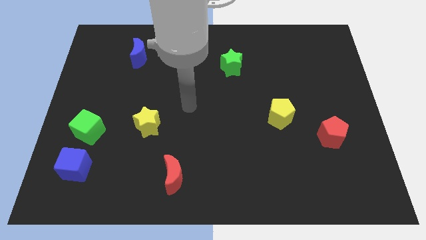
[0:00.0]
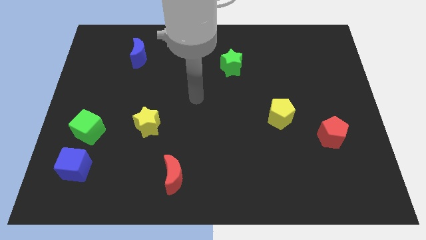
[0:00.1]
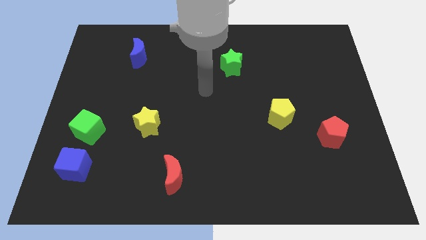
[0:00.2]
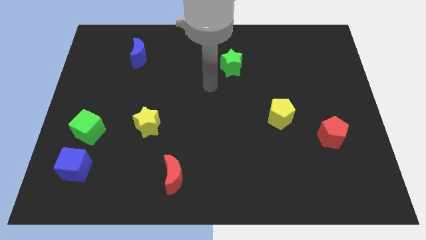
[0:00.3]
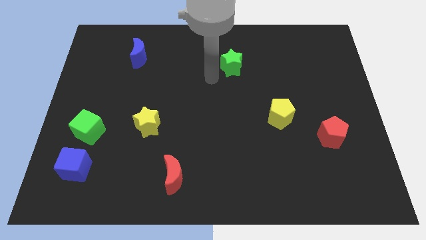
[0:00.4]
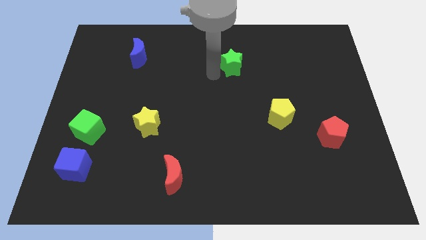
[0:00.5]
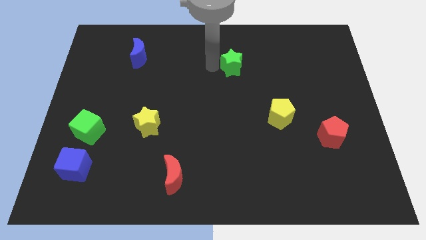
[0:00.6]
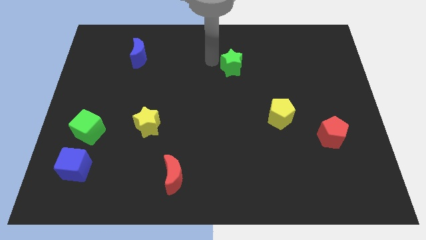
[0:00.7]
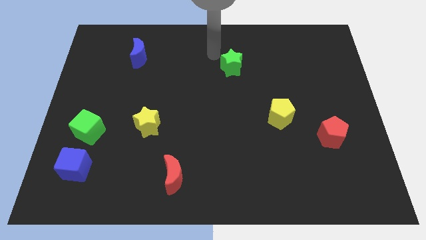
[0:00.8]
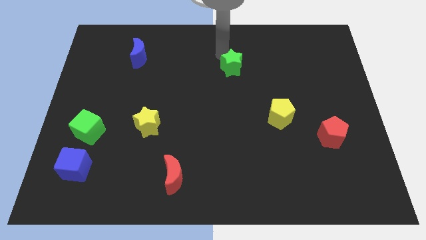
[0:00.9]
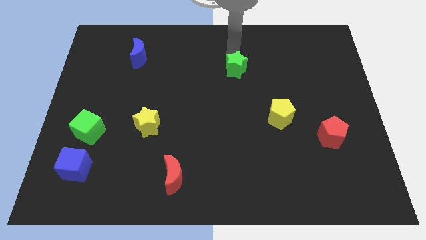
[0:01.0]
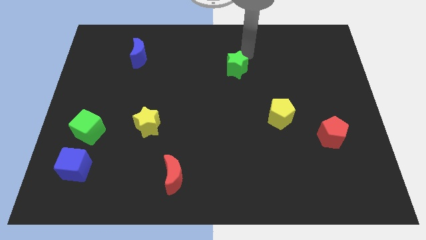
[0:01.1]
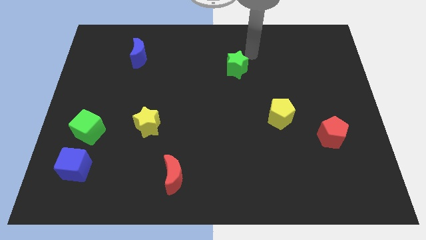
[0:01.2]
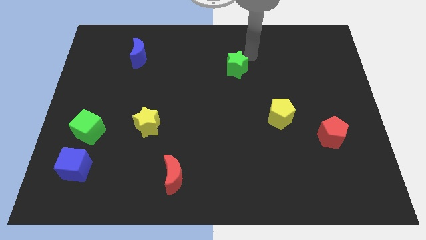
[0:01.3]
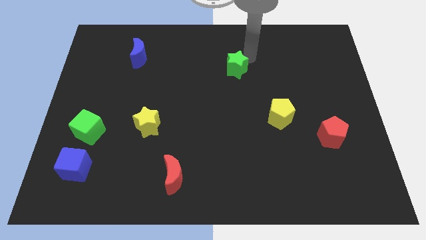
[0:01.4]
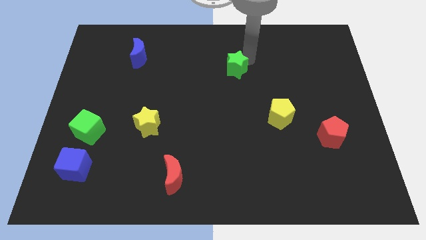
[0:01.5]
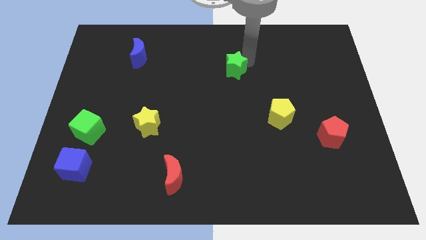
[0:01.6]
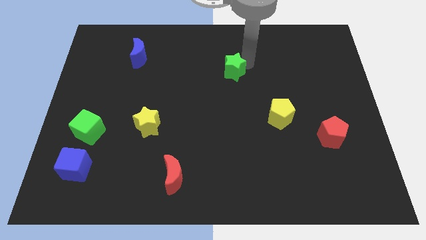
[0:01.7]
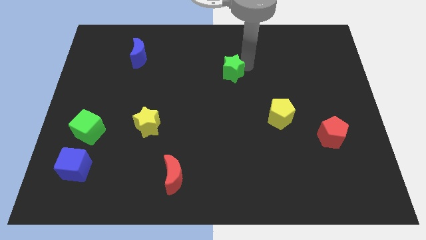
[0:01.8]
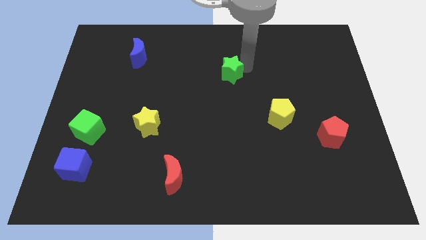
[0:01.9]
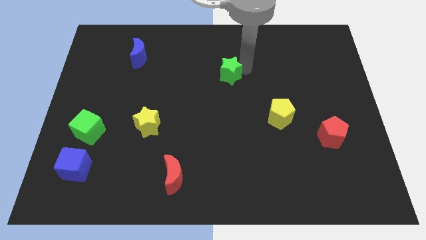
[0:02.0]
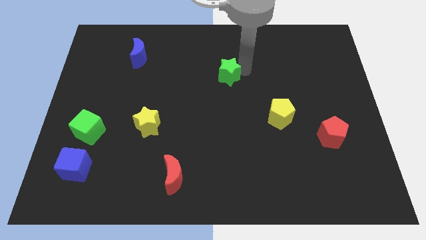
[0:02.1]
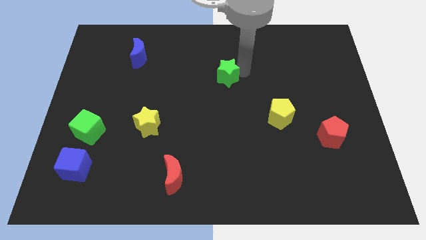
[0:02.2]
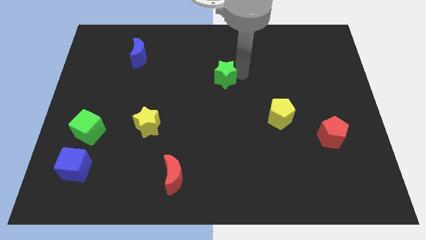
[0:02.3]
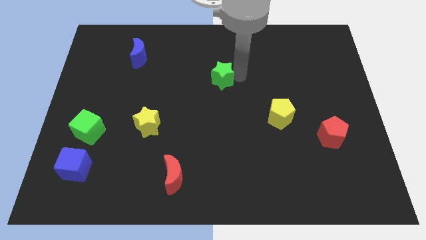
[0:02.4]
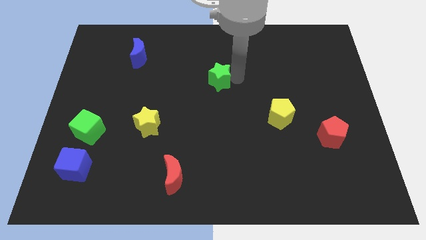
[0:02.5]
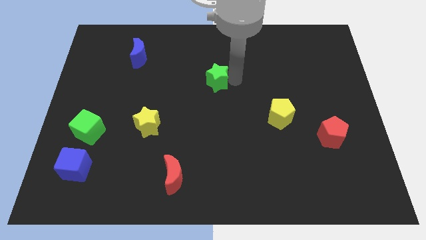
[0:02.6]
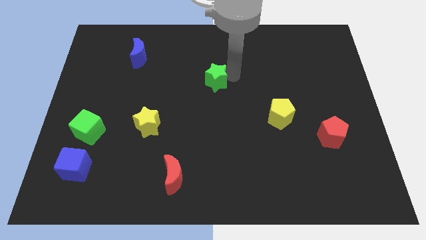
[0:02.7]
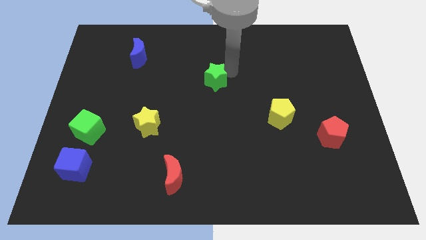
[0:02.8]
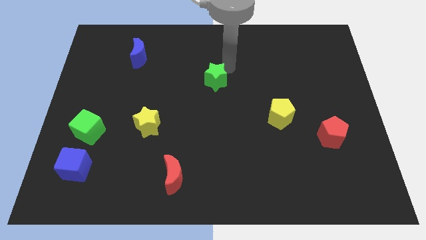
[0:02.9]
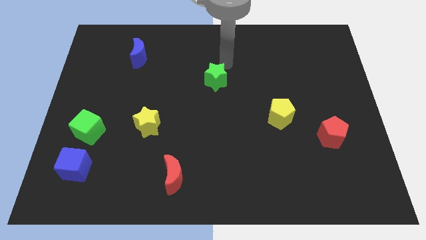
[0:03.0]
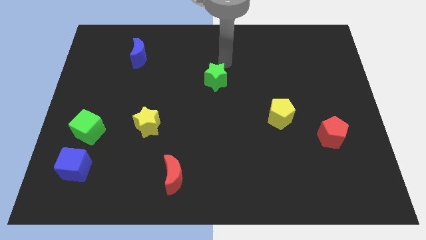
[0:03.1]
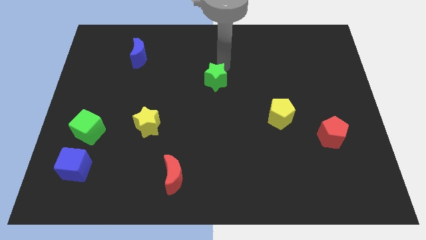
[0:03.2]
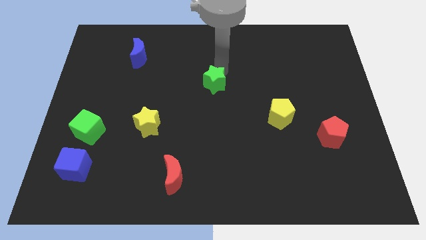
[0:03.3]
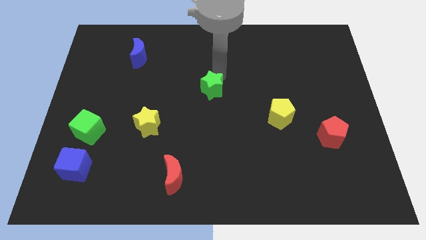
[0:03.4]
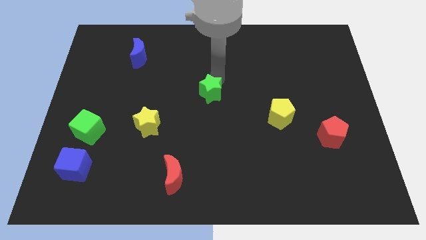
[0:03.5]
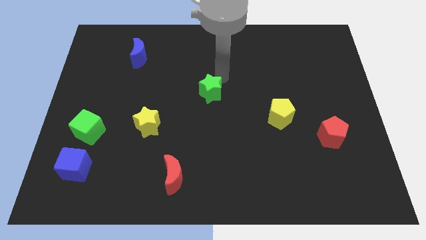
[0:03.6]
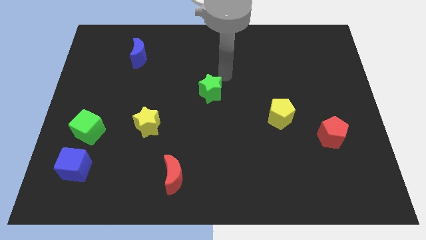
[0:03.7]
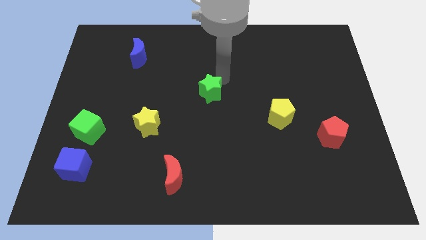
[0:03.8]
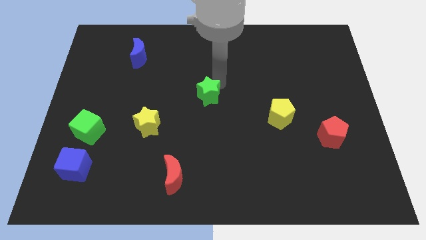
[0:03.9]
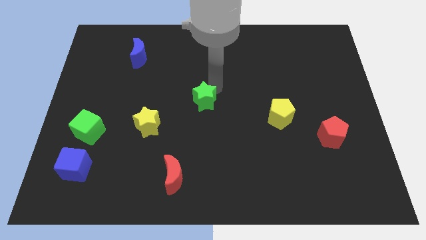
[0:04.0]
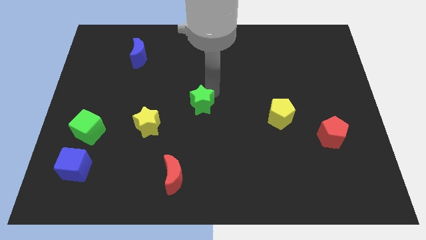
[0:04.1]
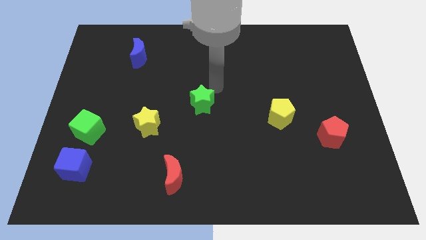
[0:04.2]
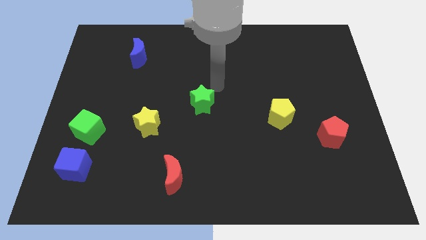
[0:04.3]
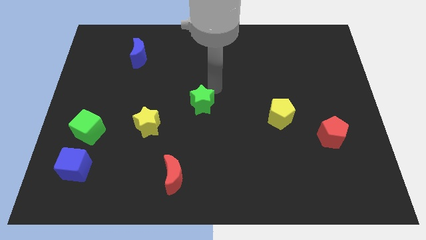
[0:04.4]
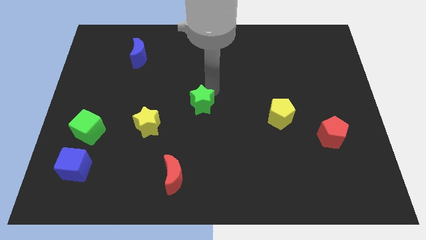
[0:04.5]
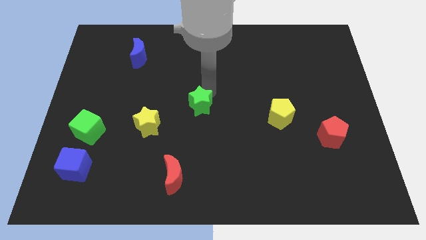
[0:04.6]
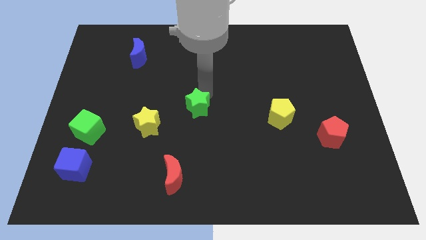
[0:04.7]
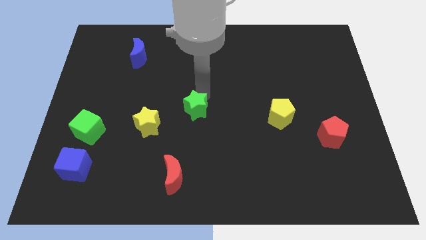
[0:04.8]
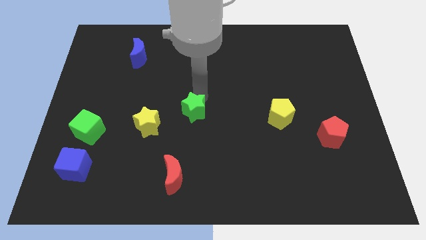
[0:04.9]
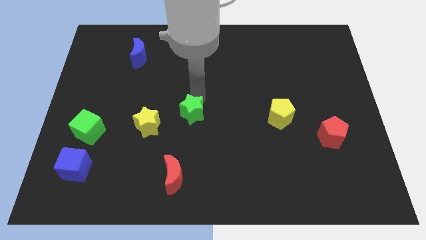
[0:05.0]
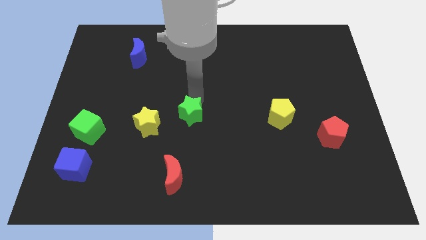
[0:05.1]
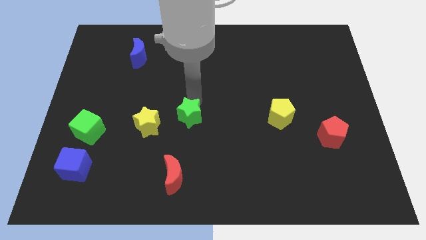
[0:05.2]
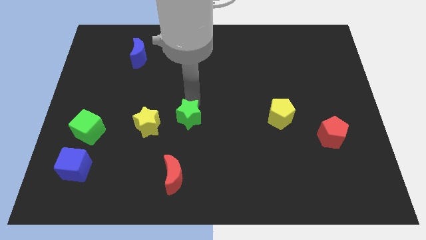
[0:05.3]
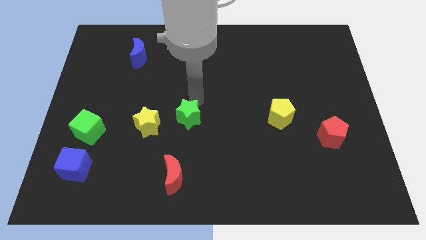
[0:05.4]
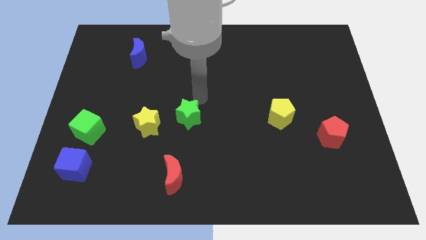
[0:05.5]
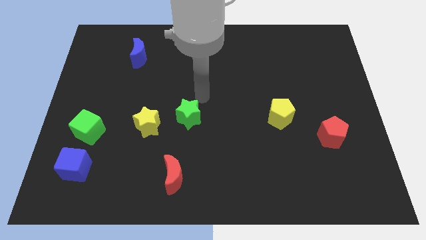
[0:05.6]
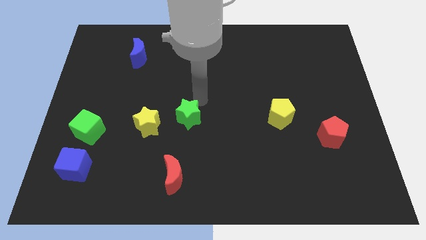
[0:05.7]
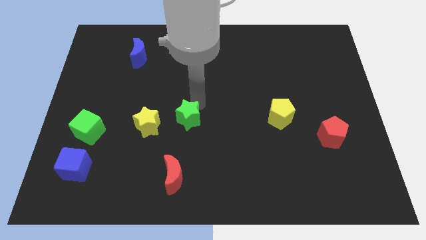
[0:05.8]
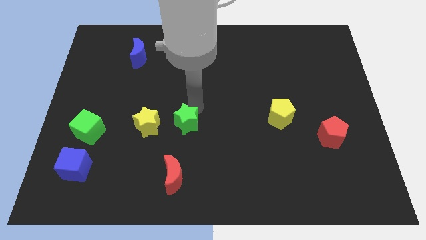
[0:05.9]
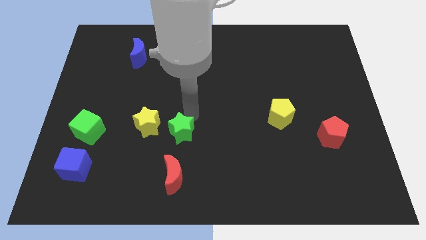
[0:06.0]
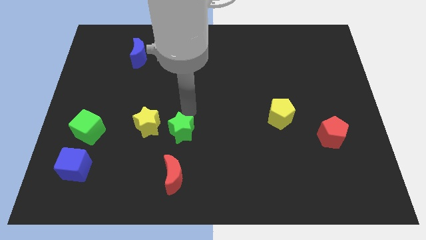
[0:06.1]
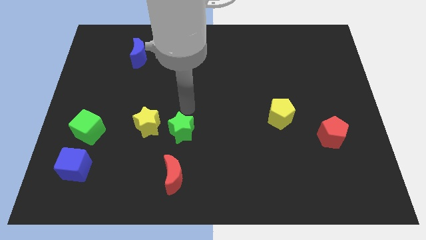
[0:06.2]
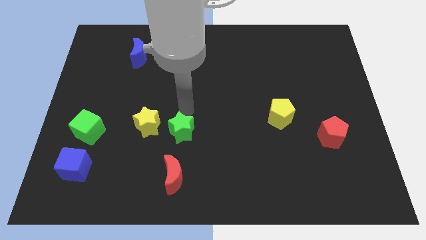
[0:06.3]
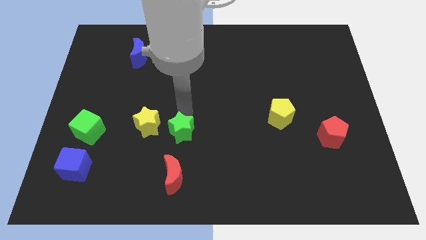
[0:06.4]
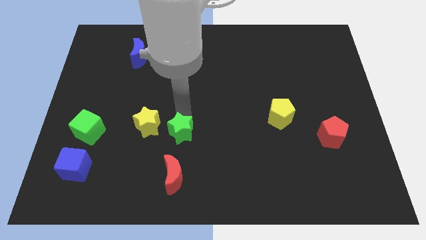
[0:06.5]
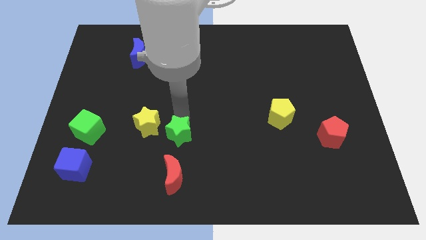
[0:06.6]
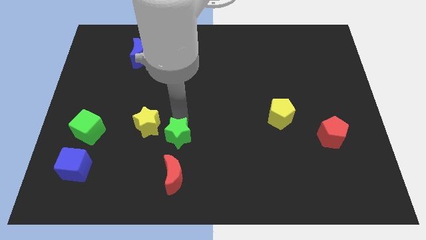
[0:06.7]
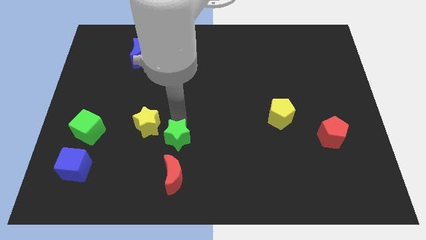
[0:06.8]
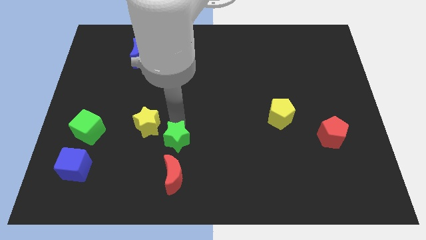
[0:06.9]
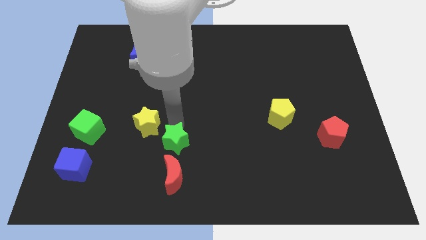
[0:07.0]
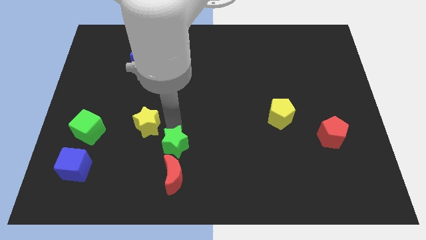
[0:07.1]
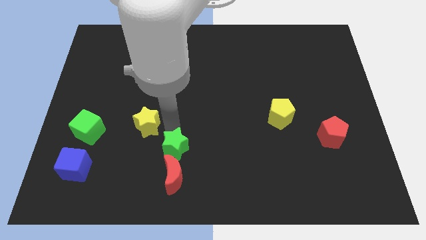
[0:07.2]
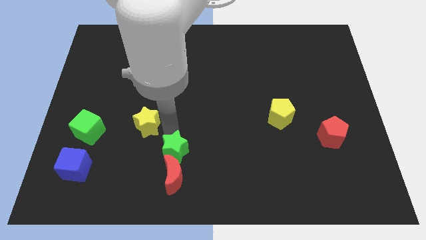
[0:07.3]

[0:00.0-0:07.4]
slide the green star towards the red moon
